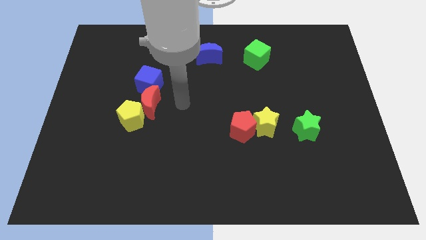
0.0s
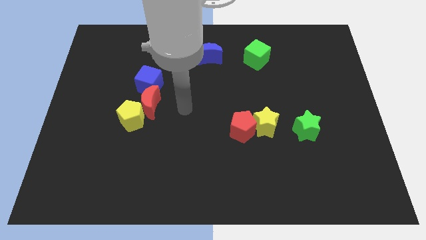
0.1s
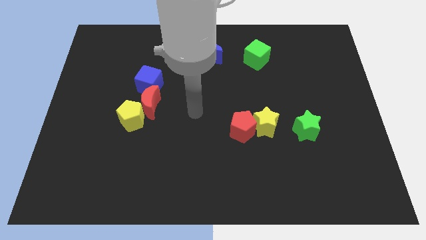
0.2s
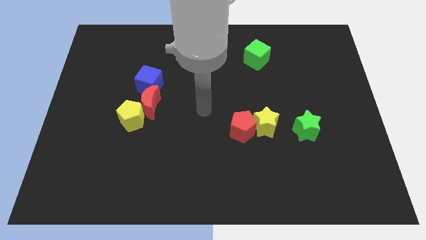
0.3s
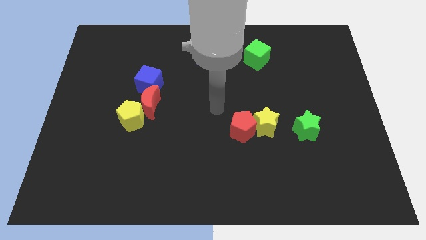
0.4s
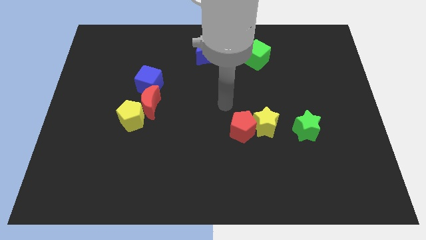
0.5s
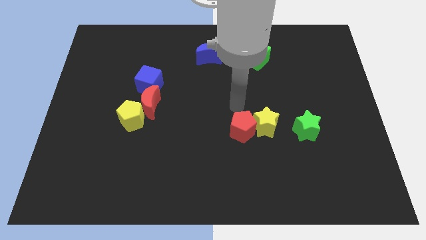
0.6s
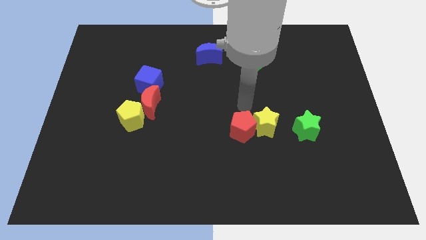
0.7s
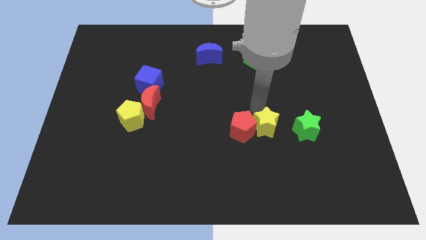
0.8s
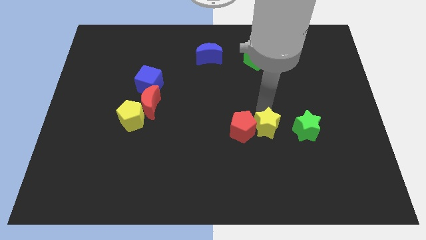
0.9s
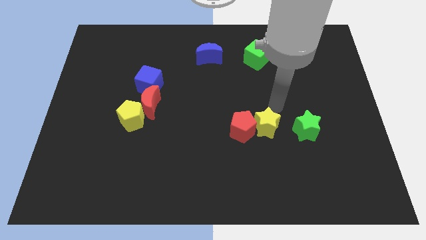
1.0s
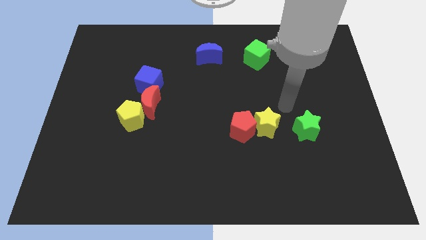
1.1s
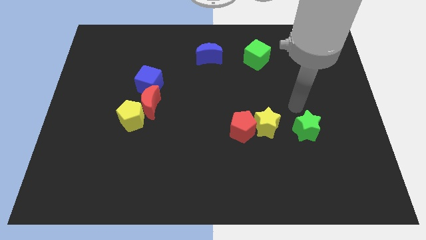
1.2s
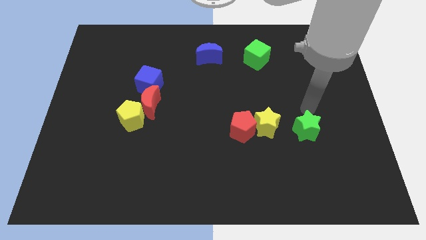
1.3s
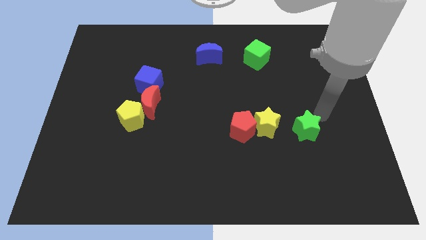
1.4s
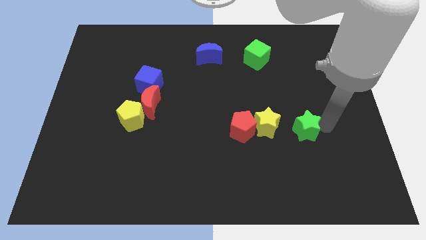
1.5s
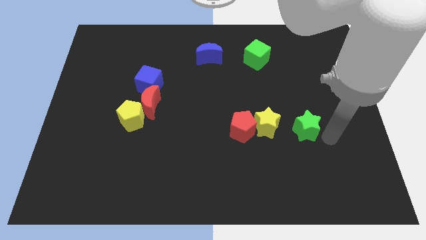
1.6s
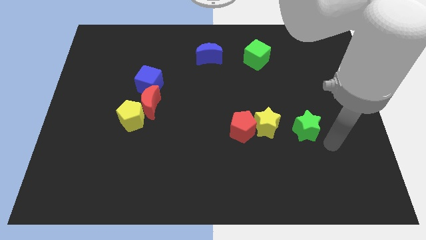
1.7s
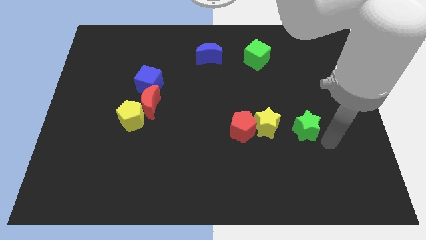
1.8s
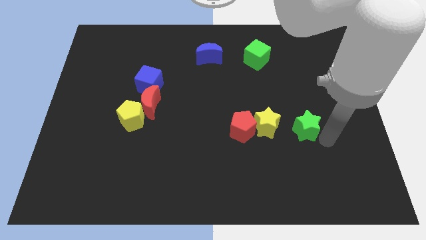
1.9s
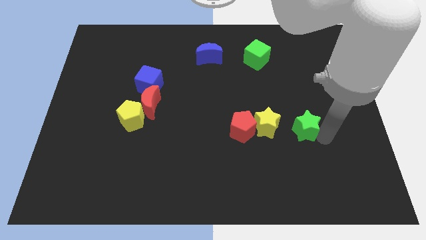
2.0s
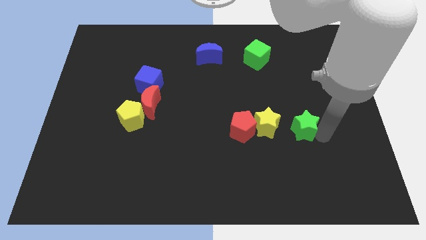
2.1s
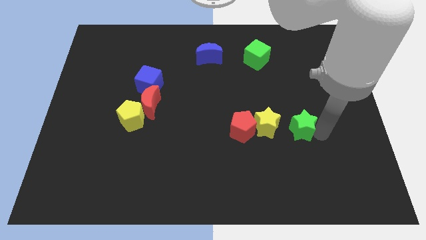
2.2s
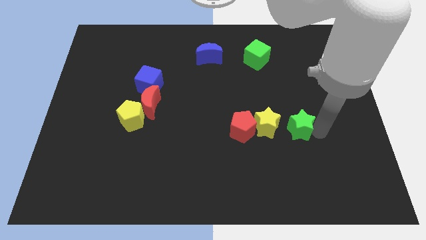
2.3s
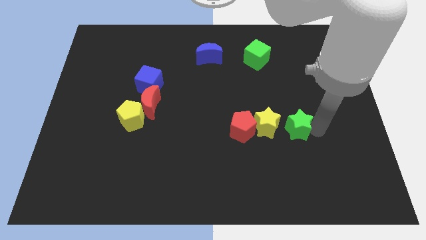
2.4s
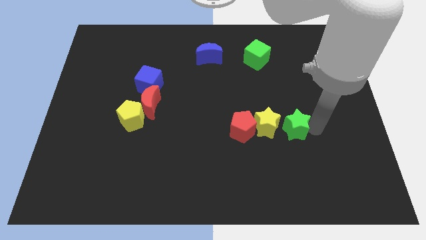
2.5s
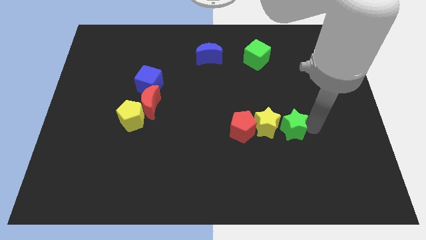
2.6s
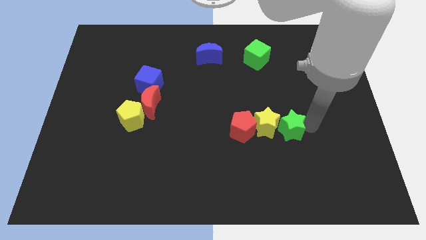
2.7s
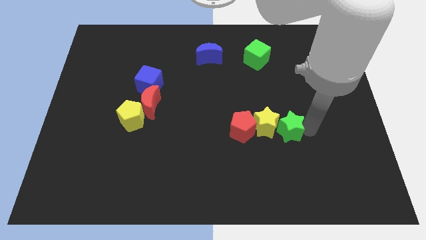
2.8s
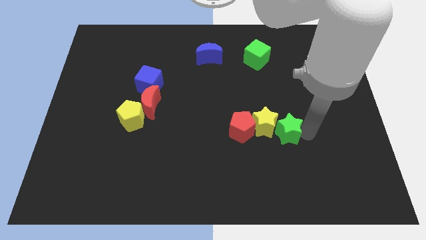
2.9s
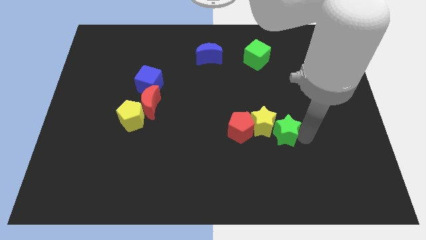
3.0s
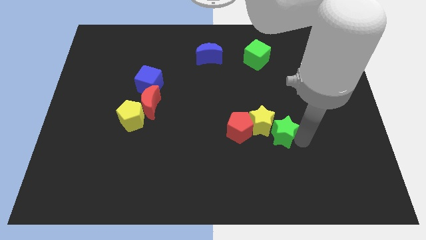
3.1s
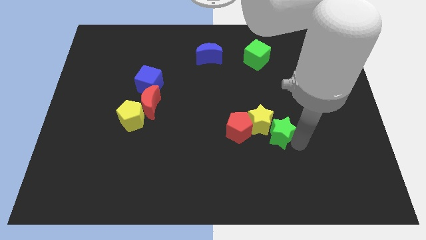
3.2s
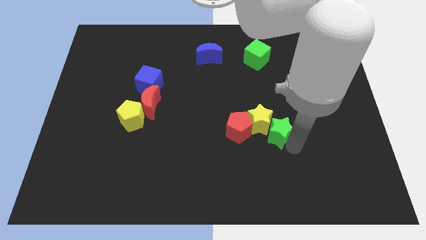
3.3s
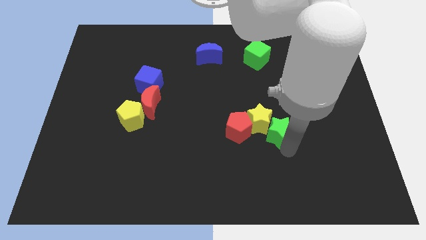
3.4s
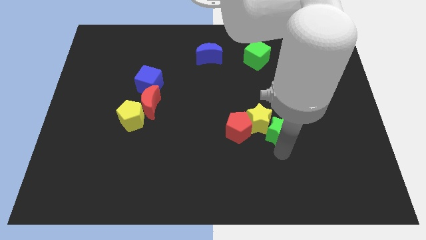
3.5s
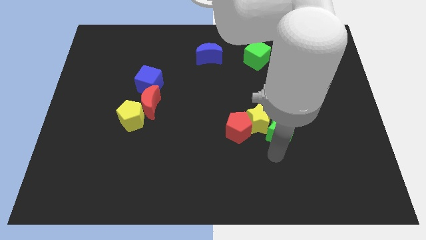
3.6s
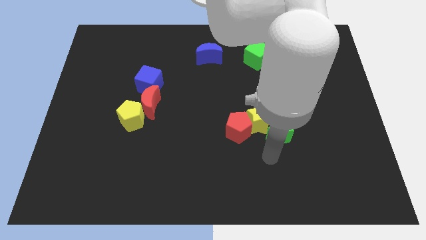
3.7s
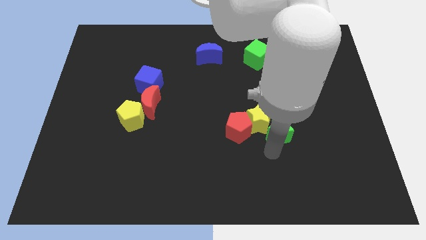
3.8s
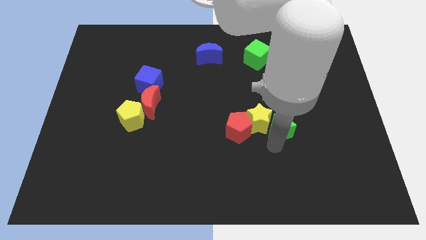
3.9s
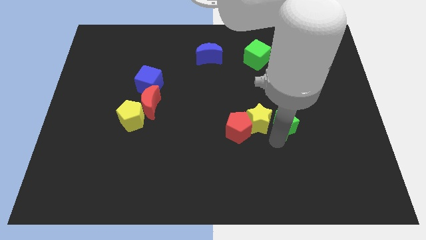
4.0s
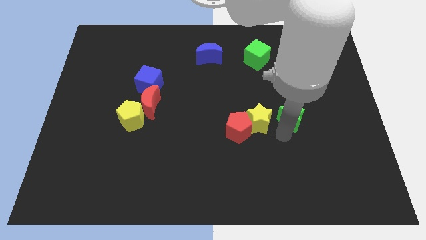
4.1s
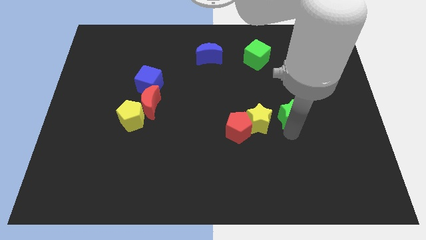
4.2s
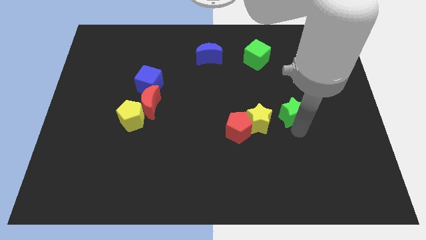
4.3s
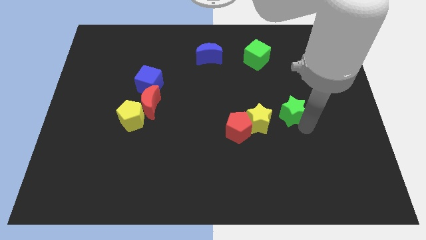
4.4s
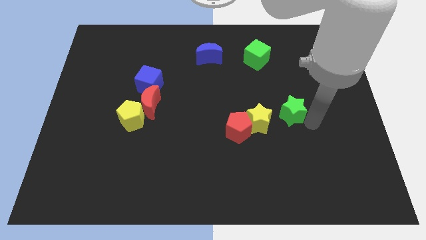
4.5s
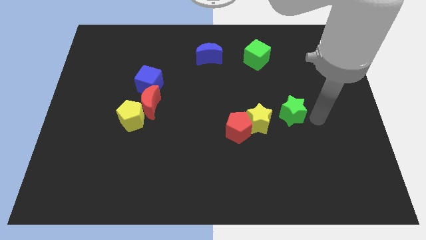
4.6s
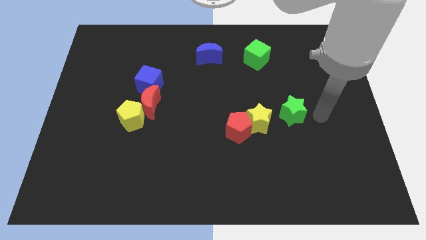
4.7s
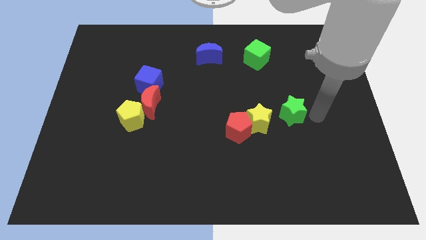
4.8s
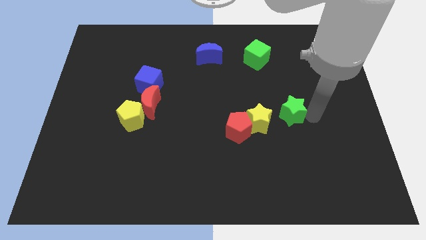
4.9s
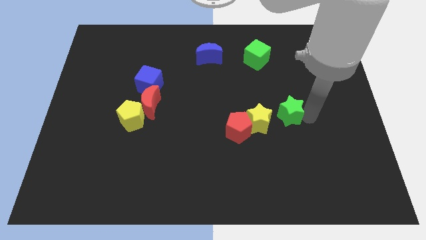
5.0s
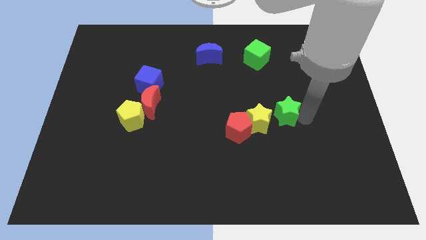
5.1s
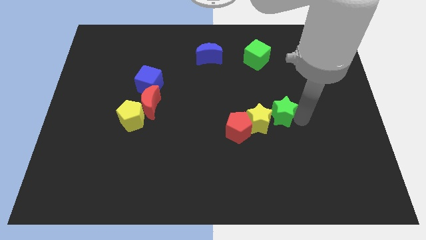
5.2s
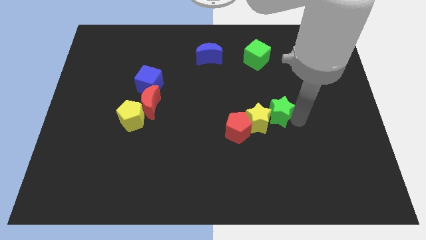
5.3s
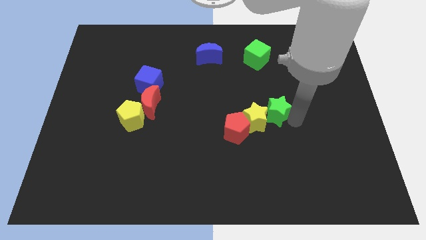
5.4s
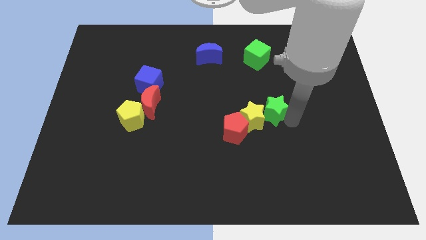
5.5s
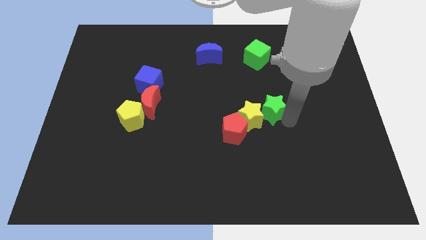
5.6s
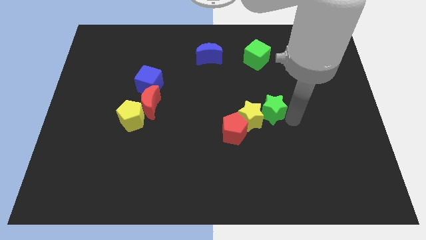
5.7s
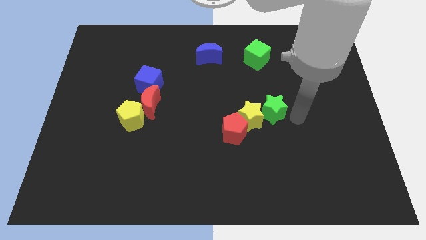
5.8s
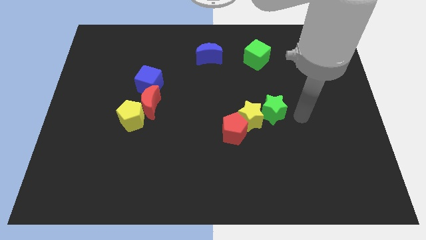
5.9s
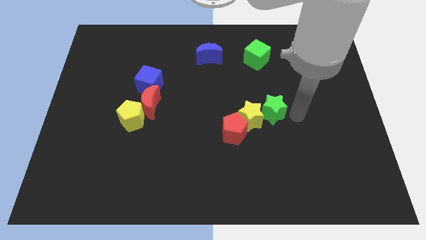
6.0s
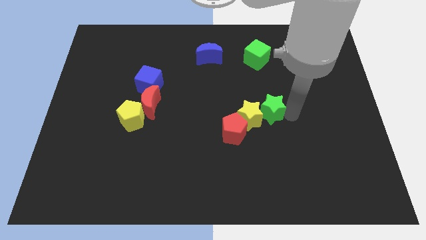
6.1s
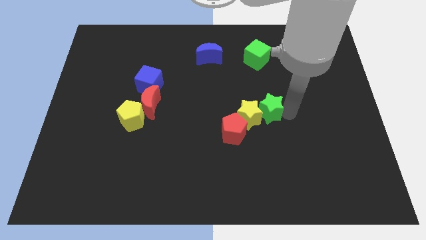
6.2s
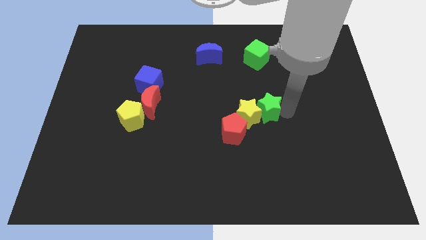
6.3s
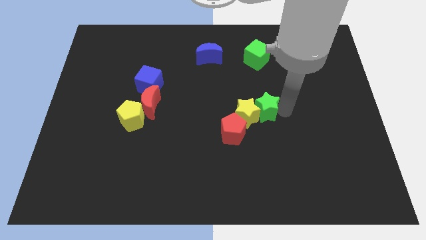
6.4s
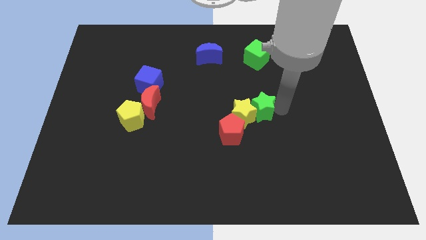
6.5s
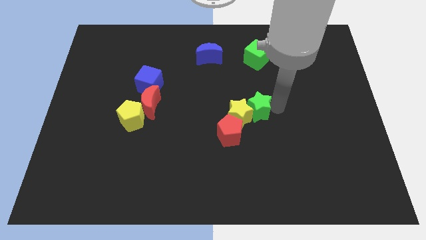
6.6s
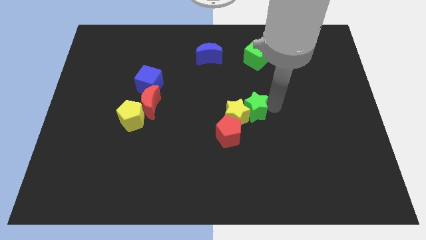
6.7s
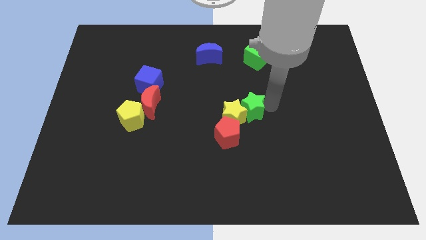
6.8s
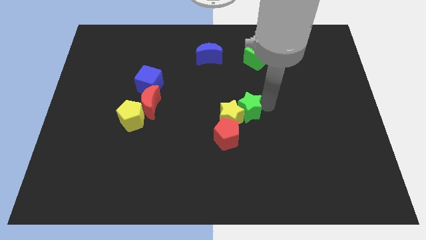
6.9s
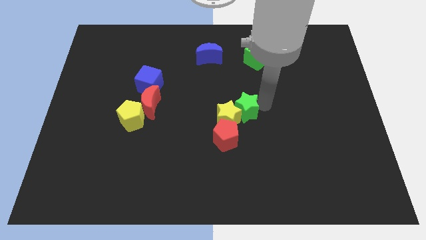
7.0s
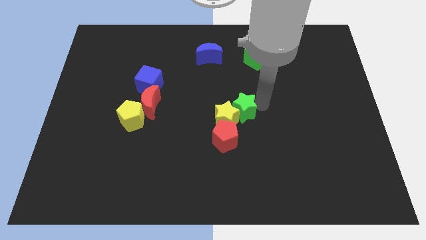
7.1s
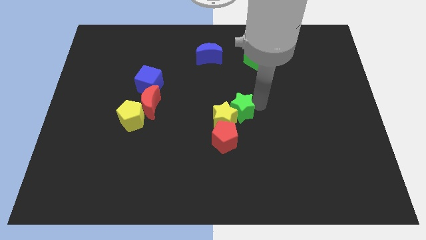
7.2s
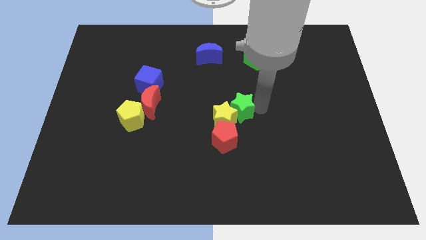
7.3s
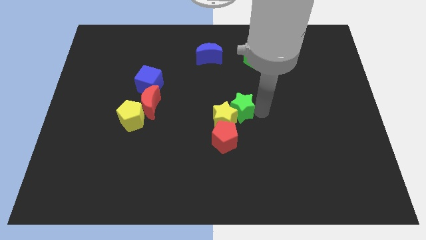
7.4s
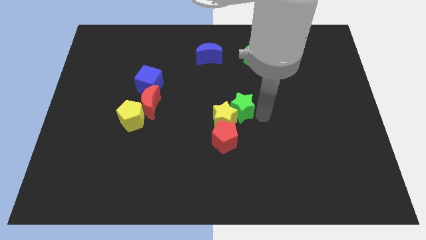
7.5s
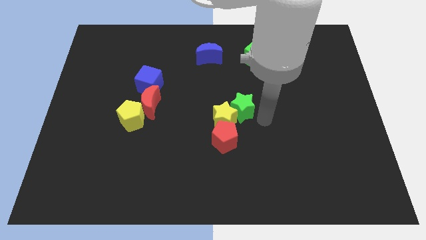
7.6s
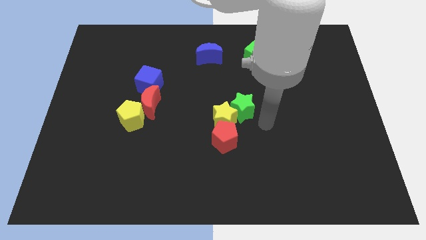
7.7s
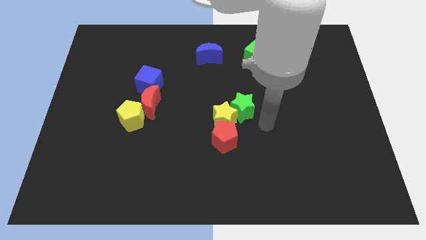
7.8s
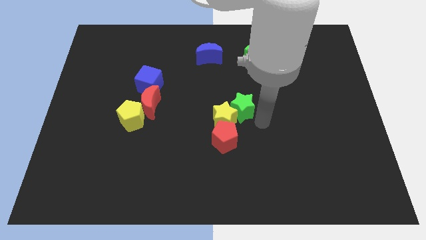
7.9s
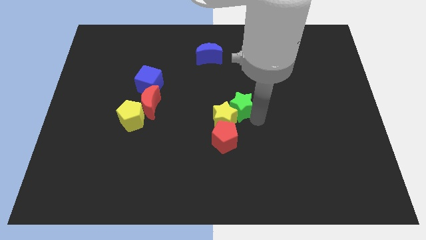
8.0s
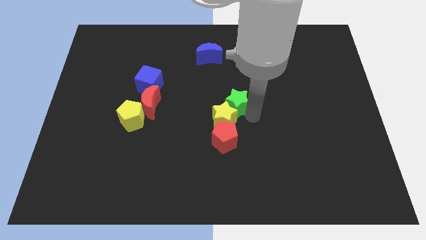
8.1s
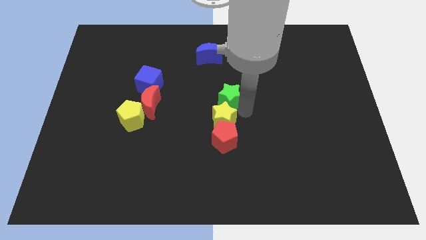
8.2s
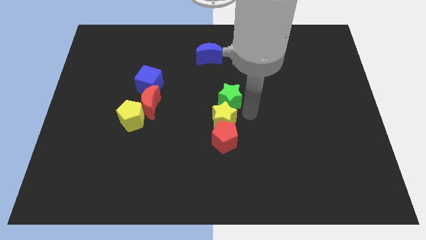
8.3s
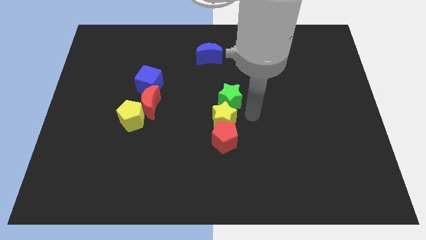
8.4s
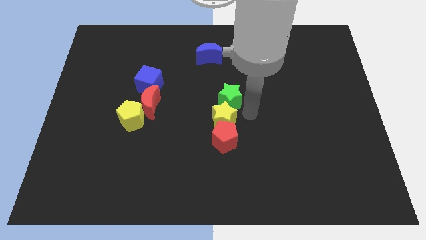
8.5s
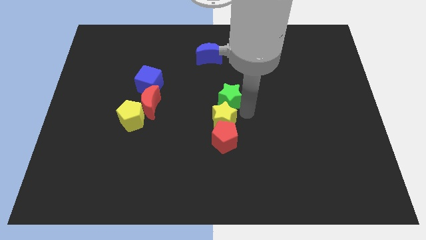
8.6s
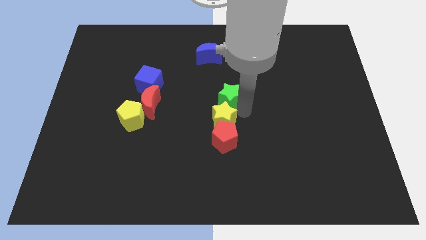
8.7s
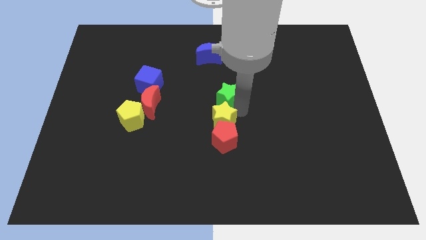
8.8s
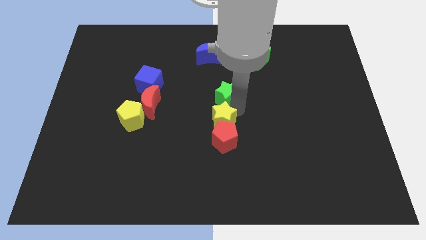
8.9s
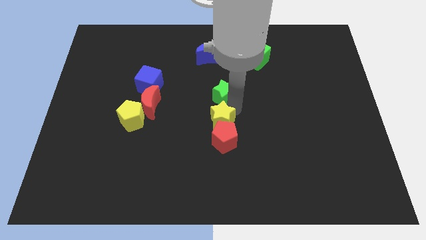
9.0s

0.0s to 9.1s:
move the green star below the blue moon
